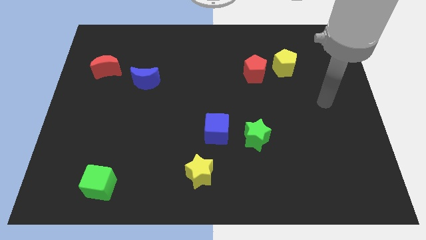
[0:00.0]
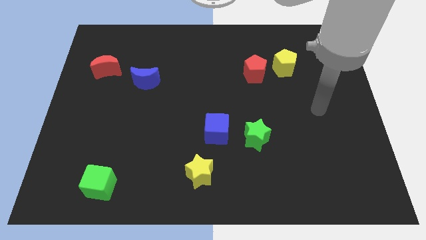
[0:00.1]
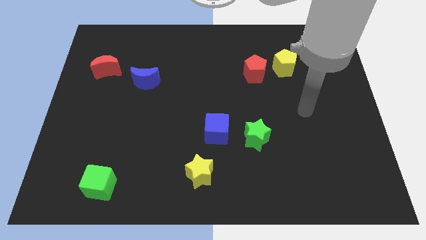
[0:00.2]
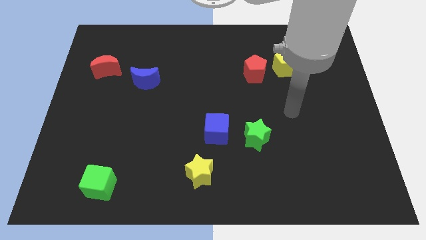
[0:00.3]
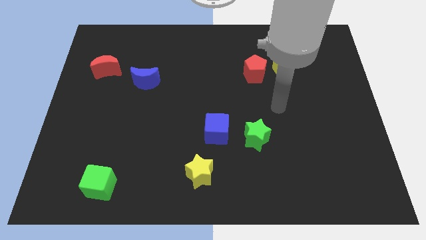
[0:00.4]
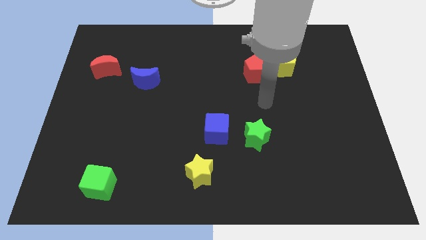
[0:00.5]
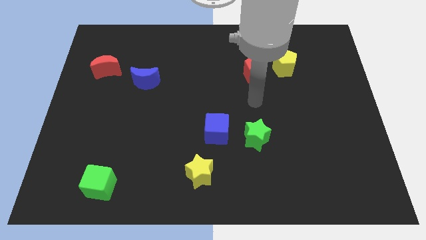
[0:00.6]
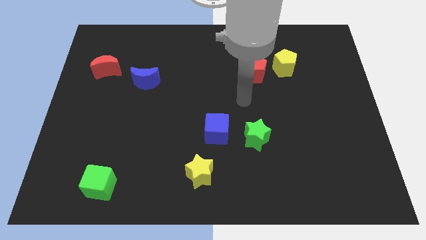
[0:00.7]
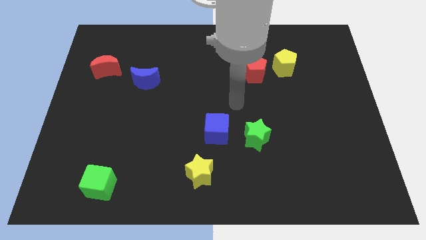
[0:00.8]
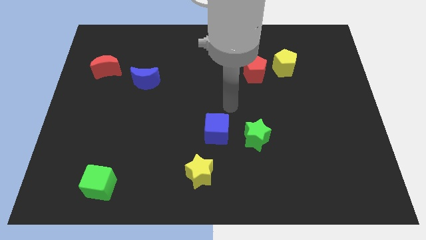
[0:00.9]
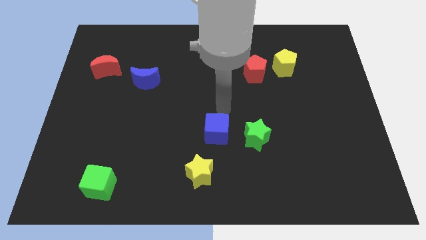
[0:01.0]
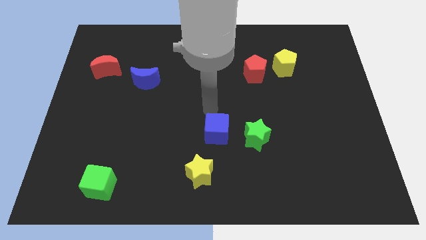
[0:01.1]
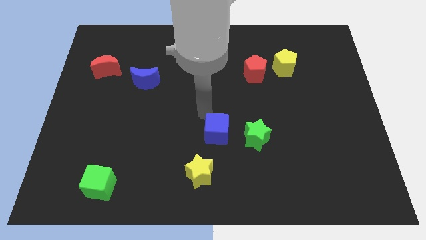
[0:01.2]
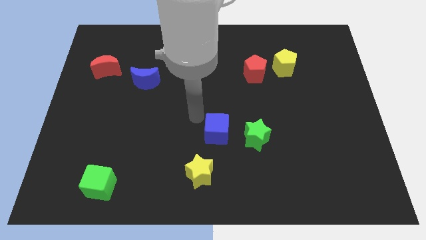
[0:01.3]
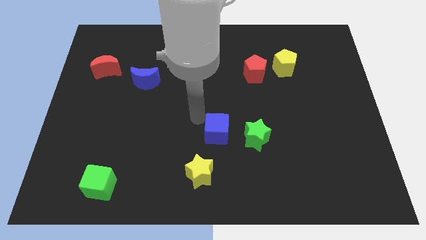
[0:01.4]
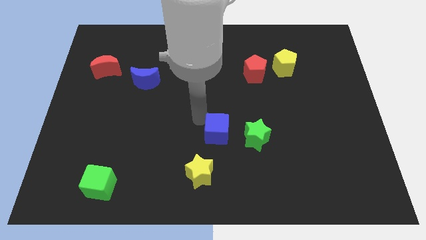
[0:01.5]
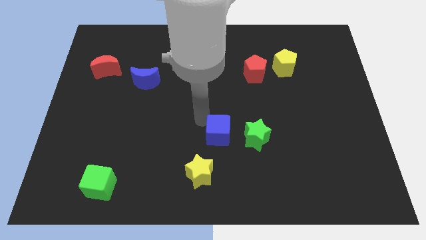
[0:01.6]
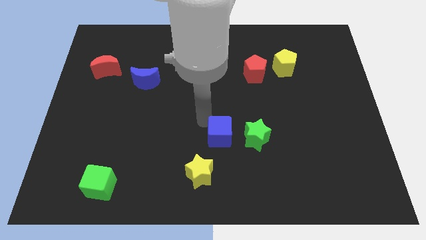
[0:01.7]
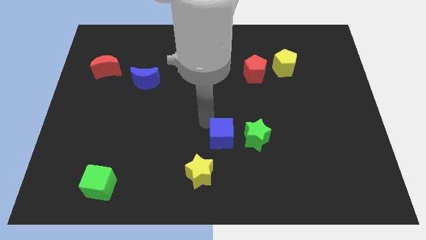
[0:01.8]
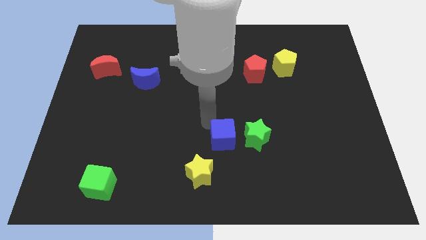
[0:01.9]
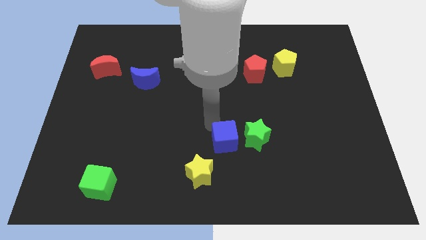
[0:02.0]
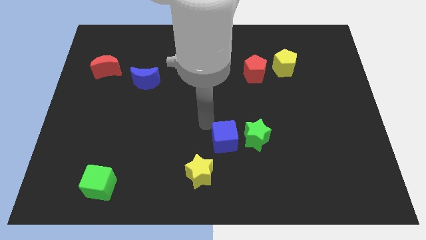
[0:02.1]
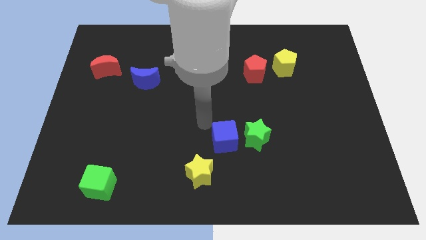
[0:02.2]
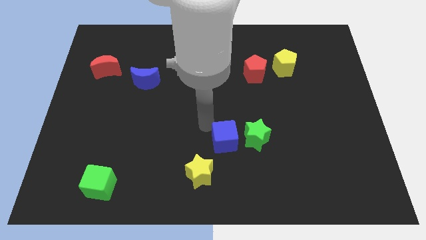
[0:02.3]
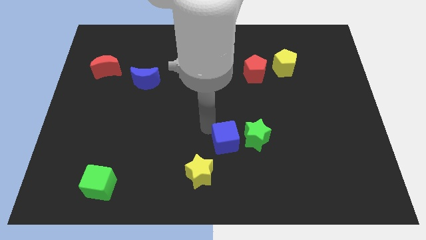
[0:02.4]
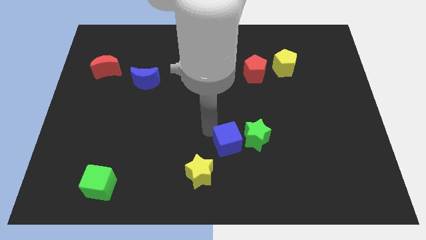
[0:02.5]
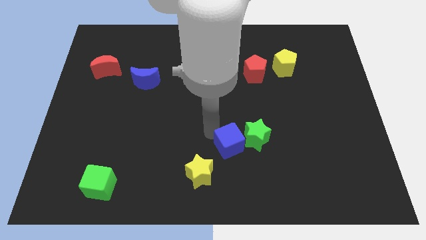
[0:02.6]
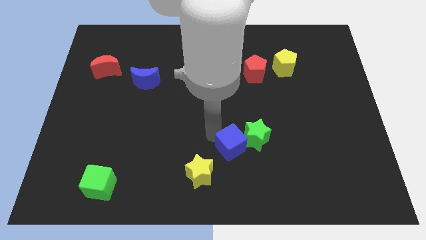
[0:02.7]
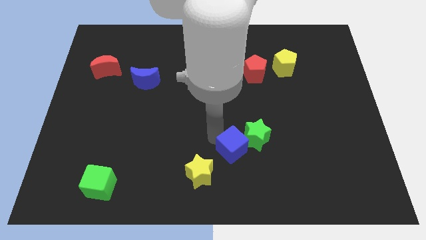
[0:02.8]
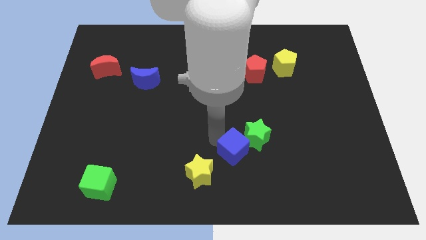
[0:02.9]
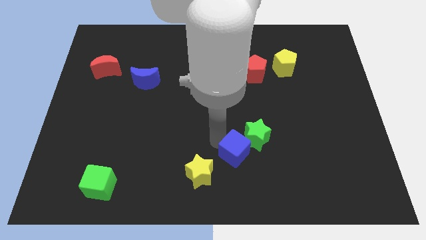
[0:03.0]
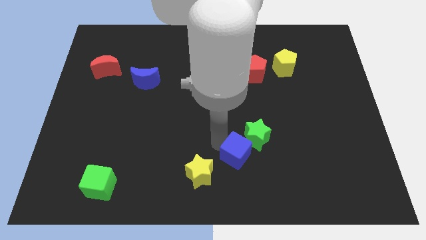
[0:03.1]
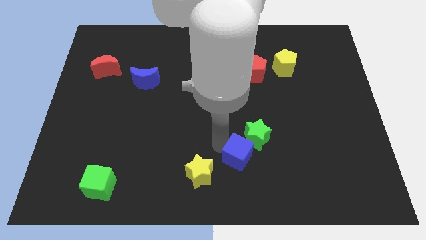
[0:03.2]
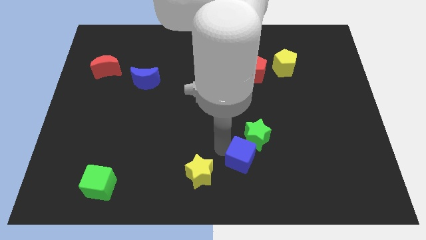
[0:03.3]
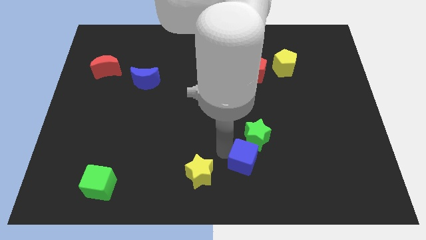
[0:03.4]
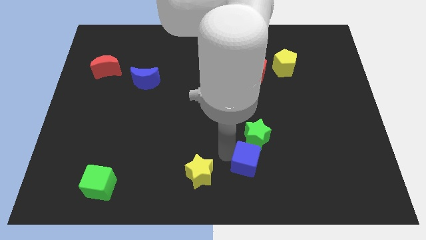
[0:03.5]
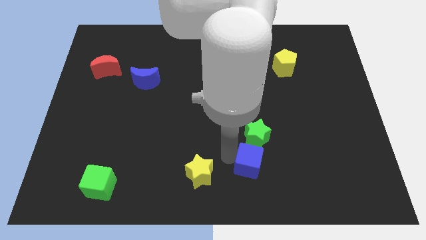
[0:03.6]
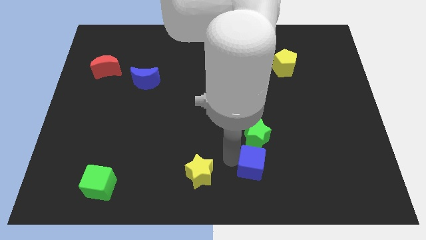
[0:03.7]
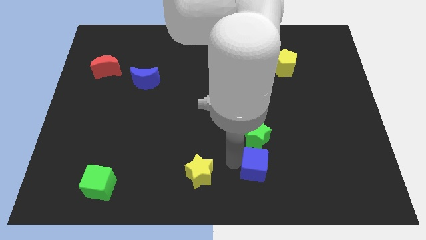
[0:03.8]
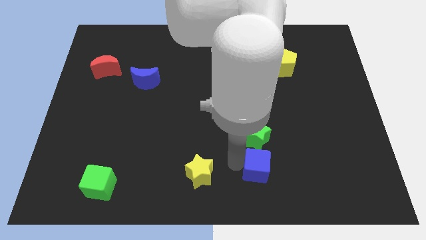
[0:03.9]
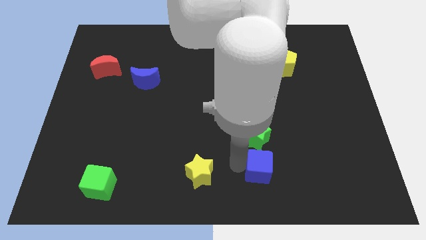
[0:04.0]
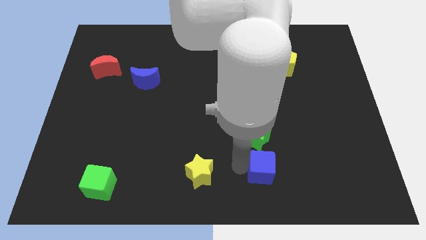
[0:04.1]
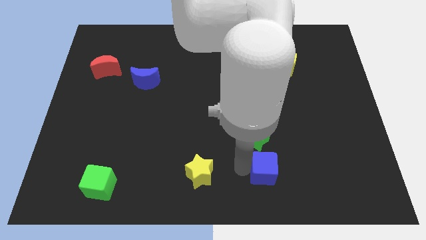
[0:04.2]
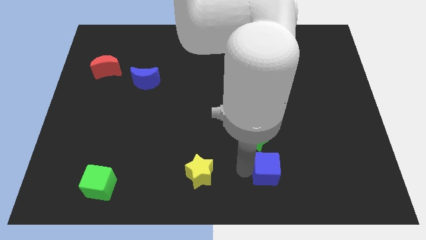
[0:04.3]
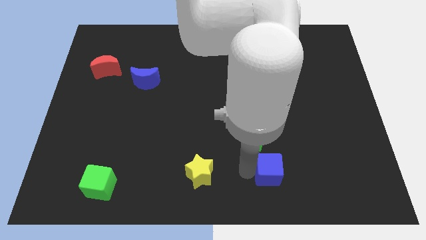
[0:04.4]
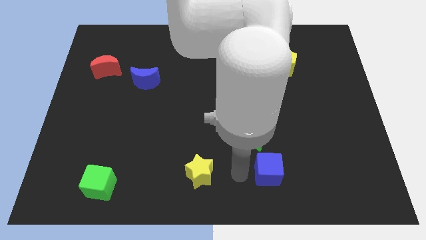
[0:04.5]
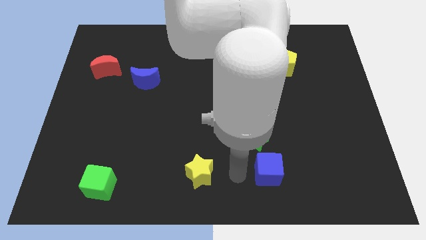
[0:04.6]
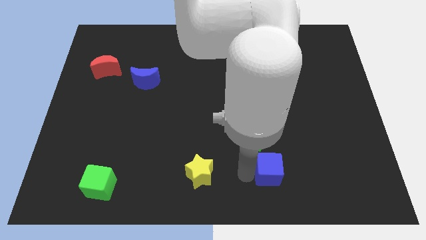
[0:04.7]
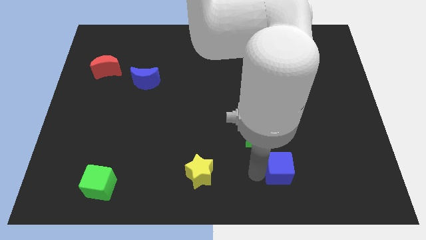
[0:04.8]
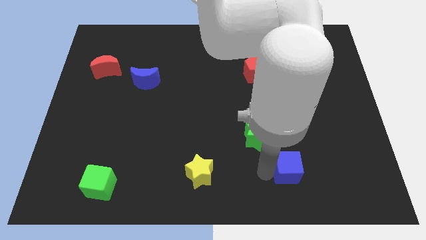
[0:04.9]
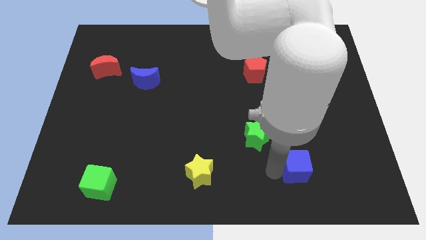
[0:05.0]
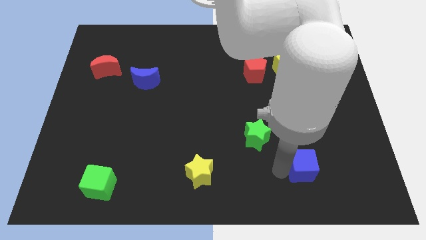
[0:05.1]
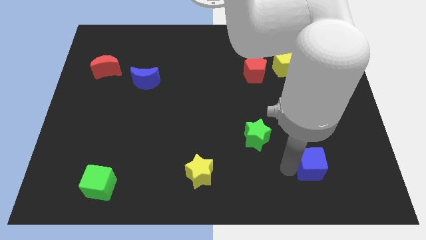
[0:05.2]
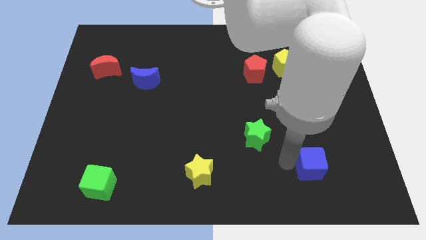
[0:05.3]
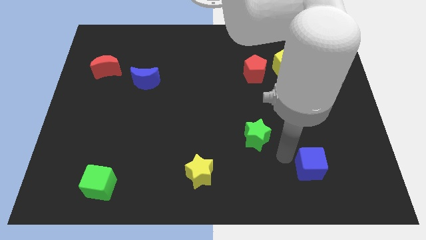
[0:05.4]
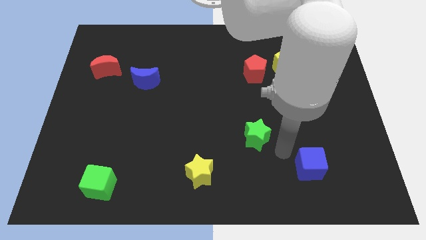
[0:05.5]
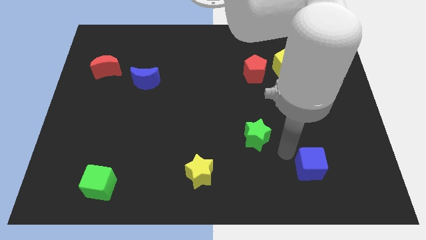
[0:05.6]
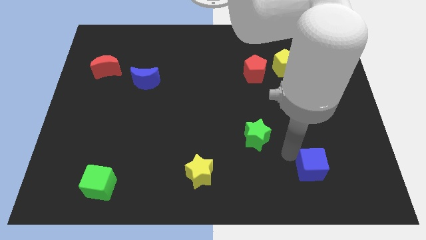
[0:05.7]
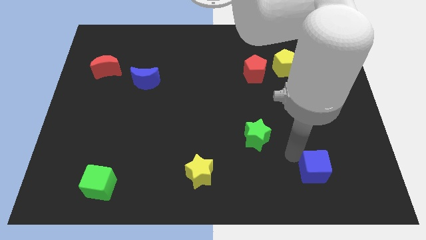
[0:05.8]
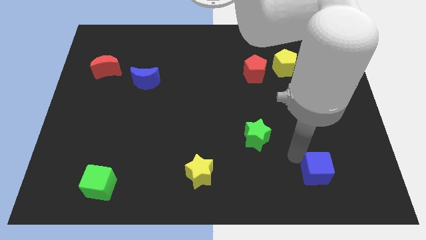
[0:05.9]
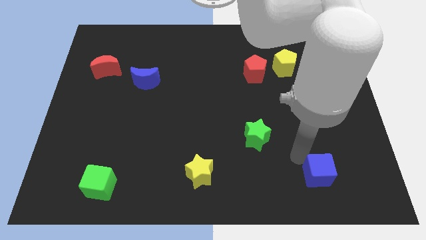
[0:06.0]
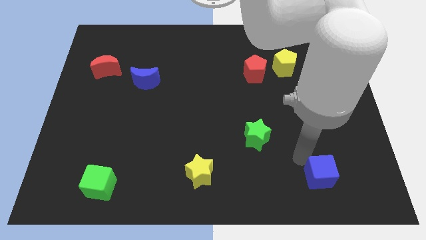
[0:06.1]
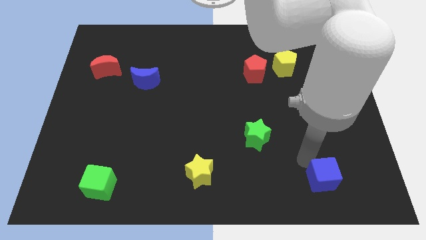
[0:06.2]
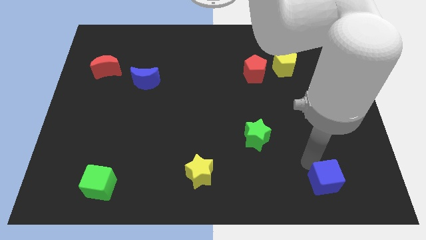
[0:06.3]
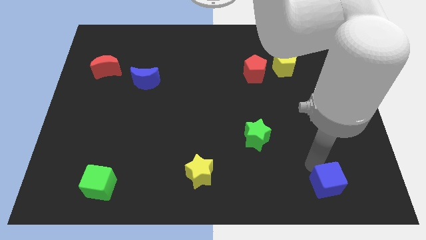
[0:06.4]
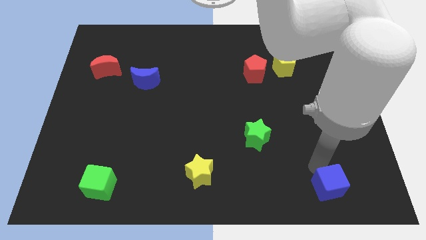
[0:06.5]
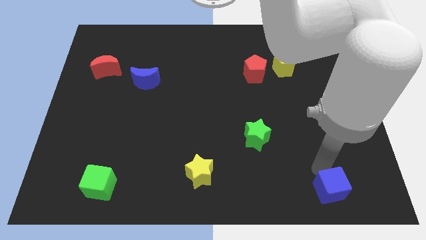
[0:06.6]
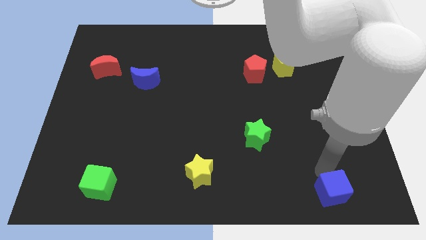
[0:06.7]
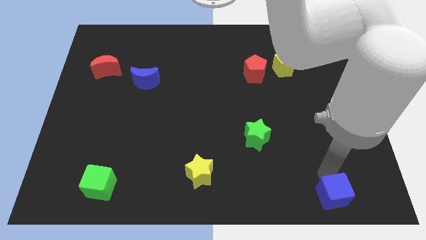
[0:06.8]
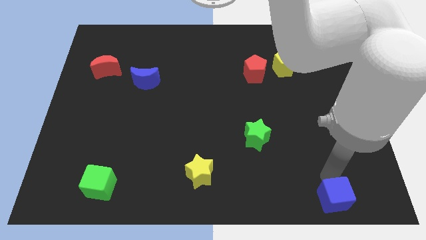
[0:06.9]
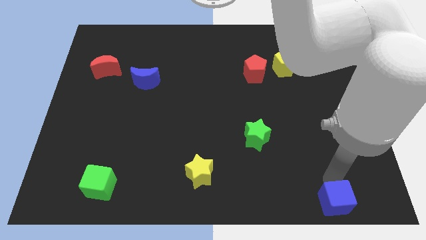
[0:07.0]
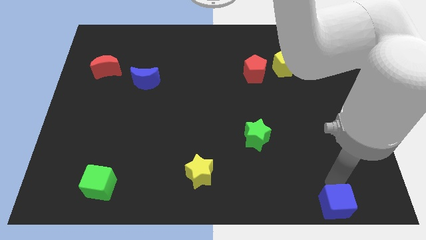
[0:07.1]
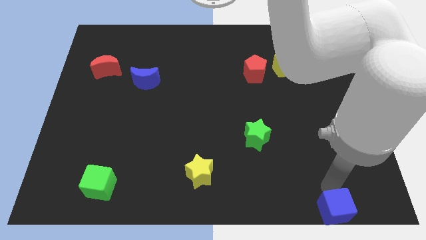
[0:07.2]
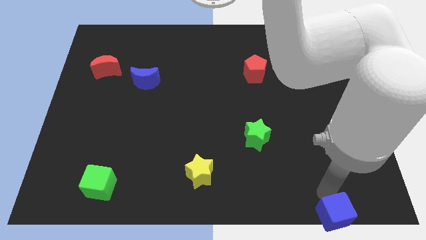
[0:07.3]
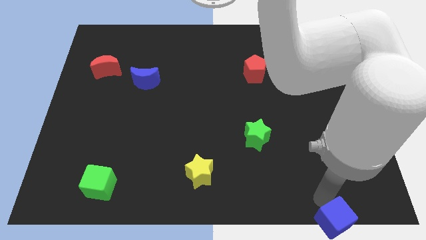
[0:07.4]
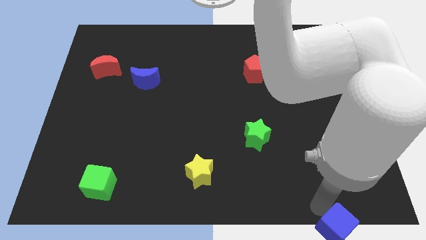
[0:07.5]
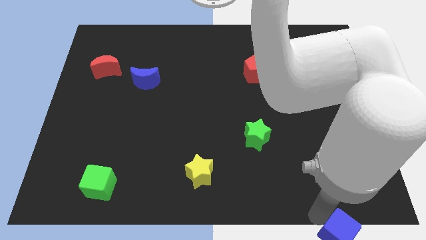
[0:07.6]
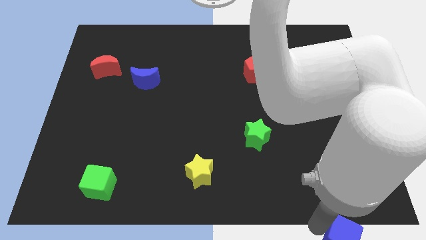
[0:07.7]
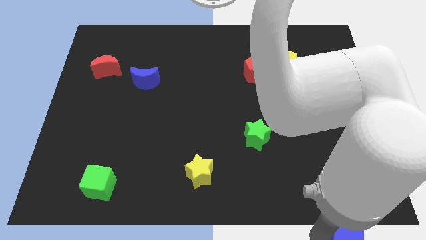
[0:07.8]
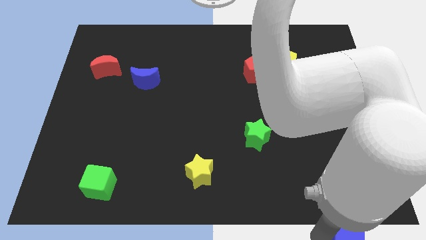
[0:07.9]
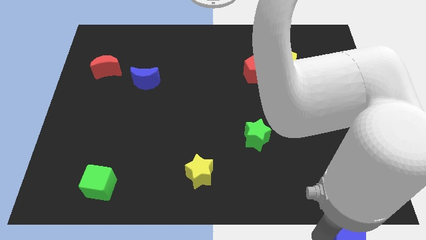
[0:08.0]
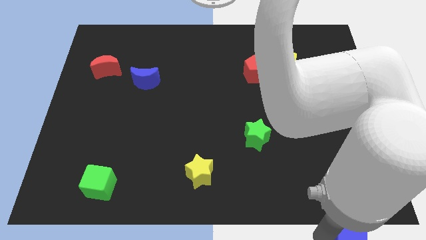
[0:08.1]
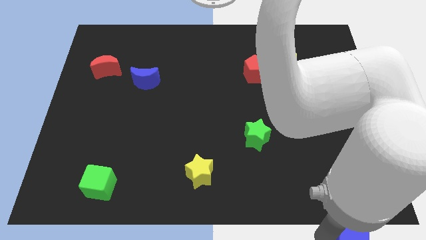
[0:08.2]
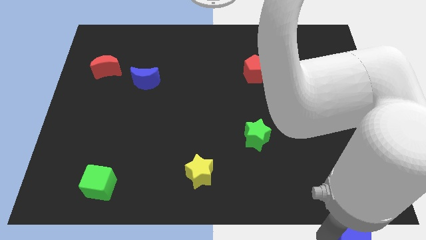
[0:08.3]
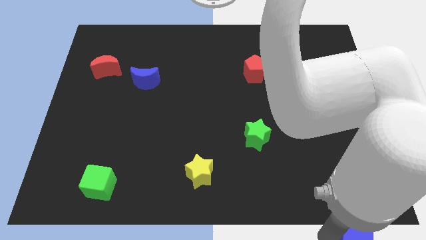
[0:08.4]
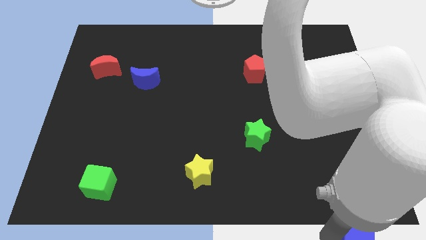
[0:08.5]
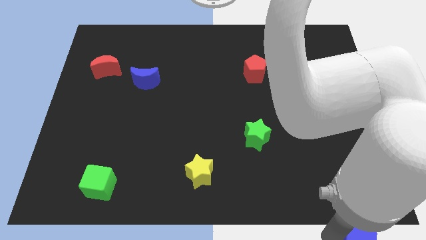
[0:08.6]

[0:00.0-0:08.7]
move the blue cube to the bottom right of the board
